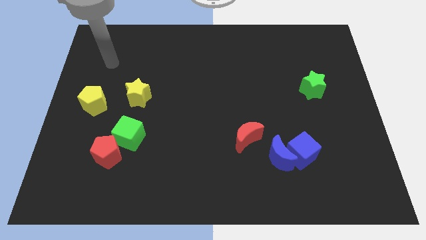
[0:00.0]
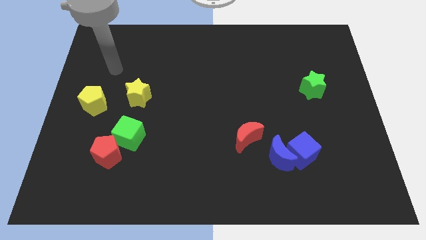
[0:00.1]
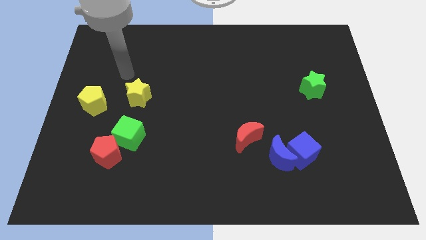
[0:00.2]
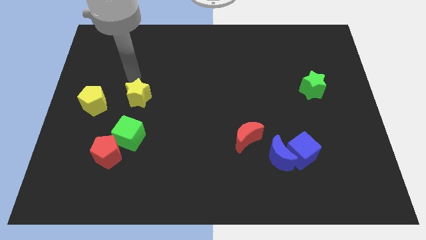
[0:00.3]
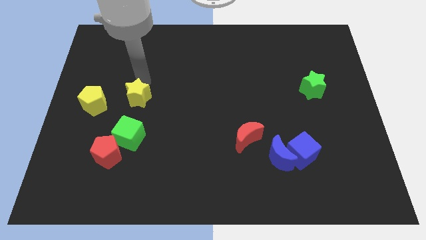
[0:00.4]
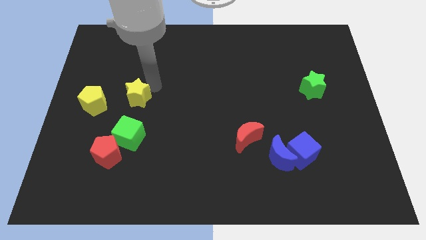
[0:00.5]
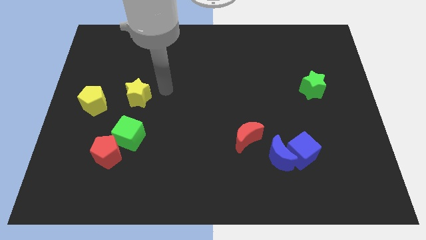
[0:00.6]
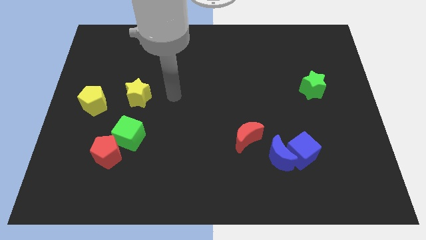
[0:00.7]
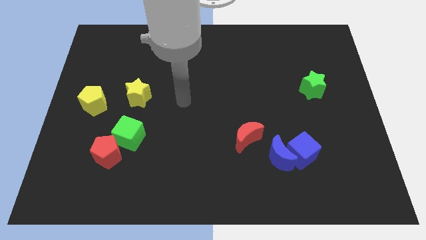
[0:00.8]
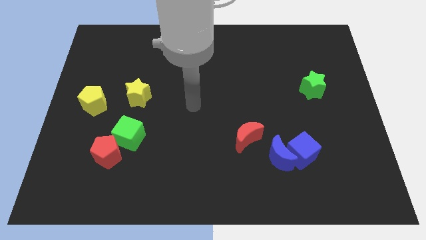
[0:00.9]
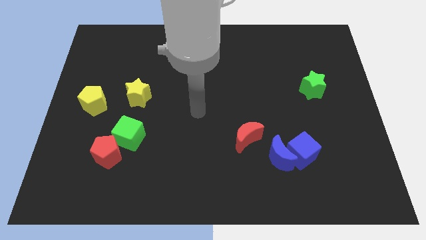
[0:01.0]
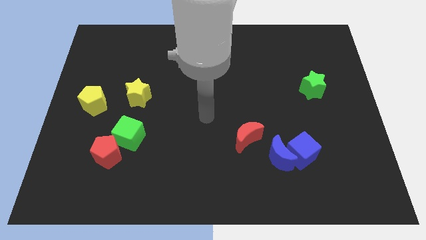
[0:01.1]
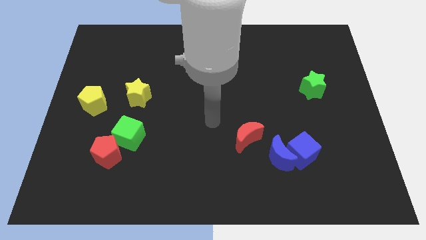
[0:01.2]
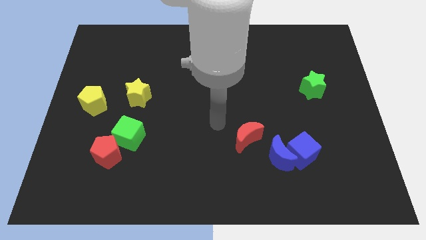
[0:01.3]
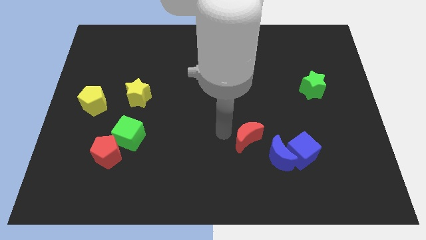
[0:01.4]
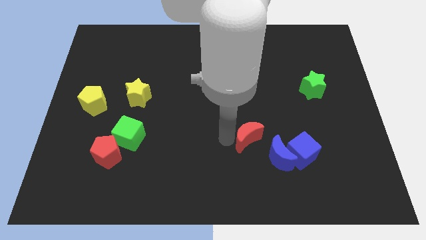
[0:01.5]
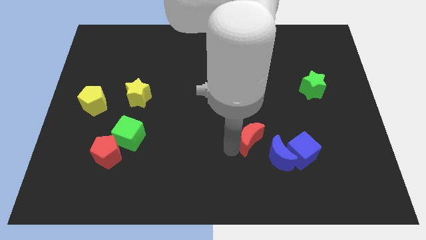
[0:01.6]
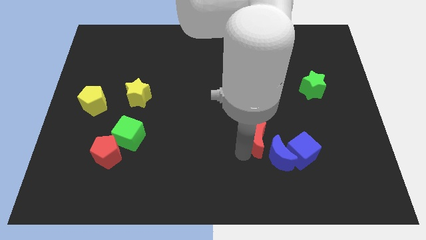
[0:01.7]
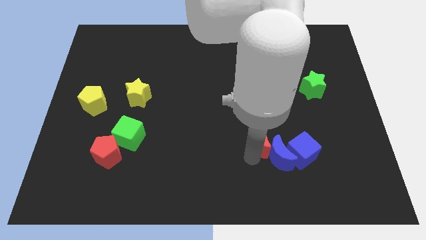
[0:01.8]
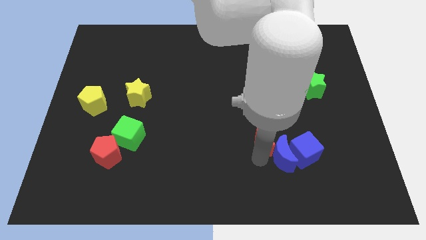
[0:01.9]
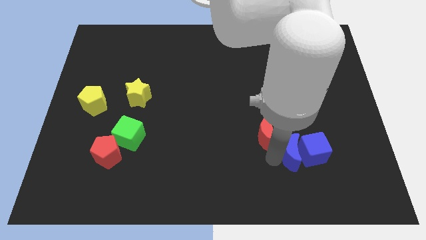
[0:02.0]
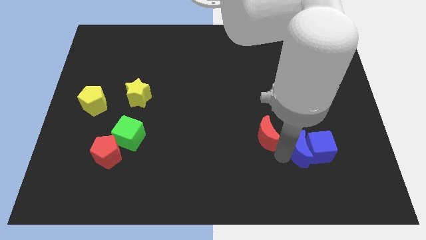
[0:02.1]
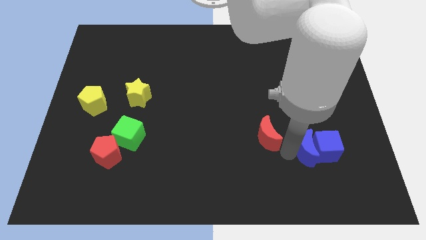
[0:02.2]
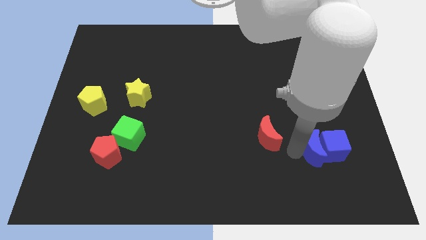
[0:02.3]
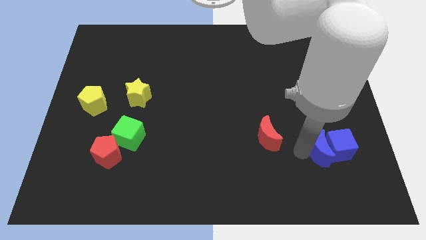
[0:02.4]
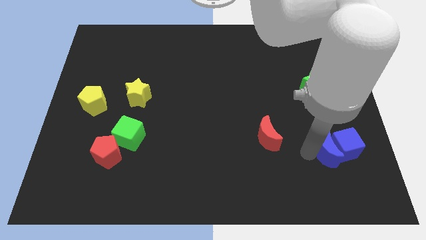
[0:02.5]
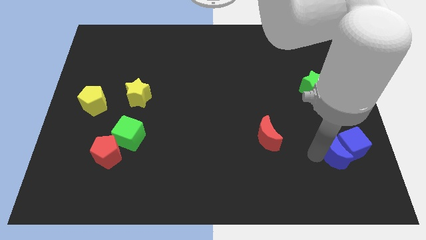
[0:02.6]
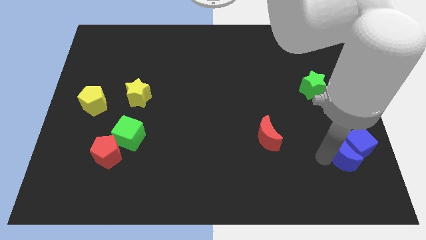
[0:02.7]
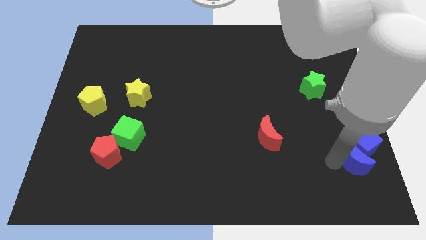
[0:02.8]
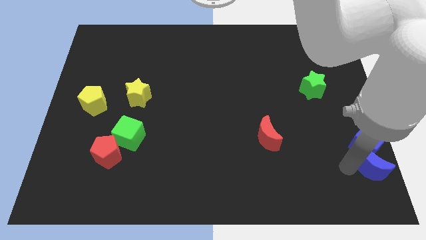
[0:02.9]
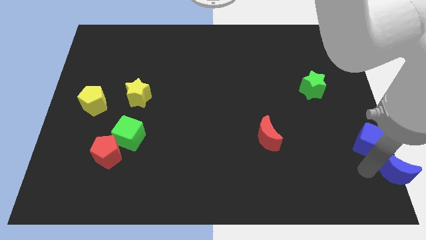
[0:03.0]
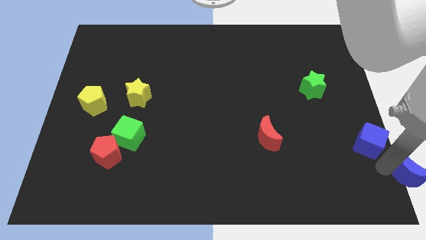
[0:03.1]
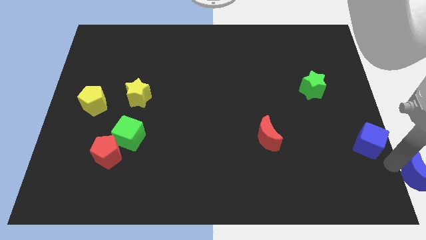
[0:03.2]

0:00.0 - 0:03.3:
move the blue cube away from the blue moon

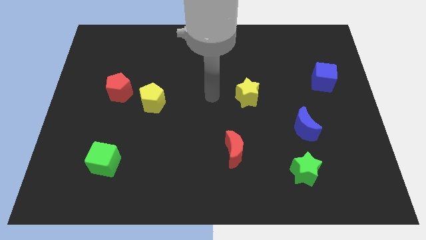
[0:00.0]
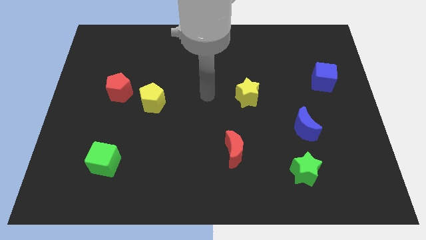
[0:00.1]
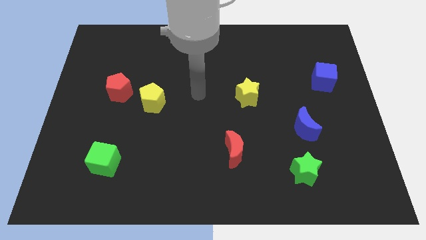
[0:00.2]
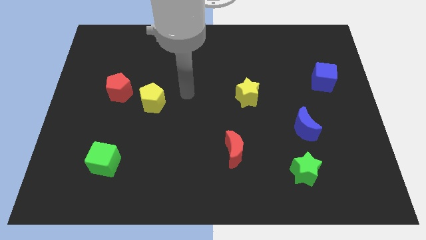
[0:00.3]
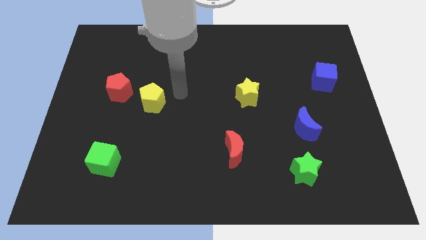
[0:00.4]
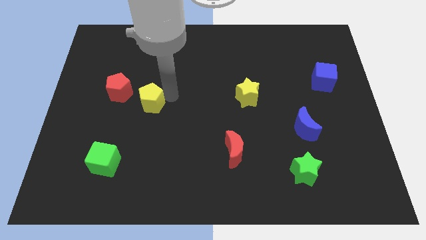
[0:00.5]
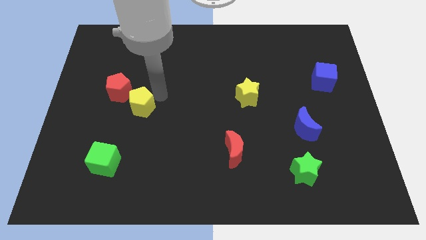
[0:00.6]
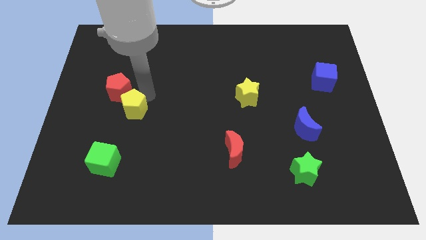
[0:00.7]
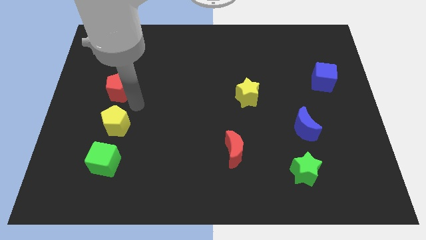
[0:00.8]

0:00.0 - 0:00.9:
pull the red pentagon apart from the yellow pentagon

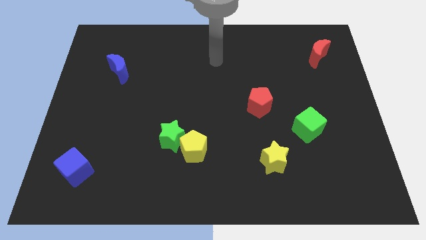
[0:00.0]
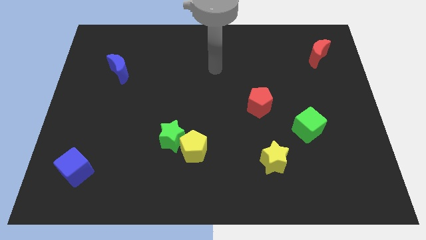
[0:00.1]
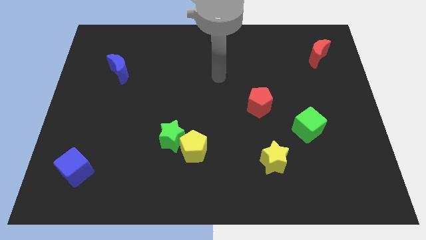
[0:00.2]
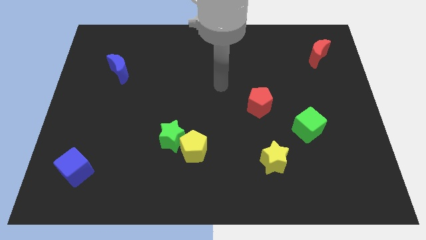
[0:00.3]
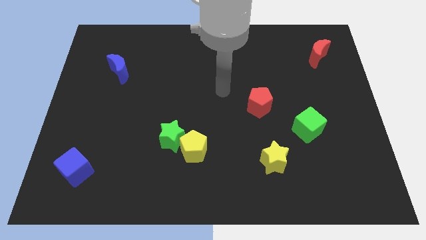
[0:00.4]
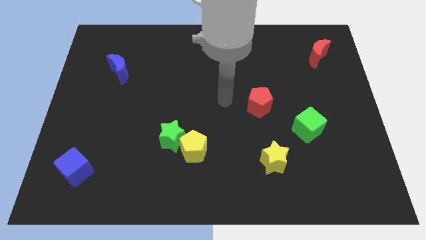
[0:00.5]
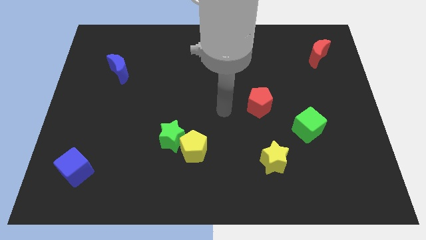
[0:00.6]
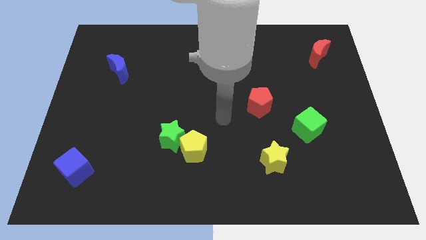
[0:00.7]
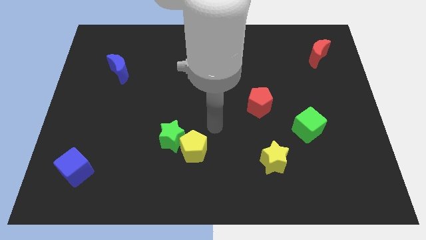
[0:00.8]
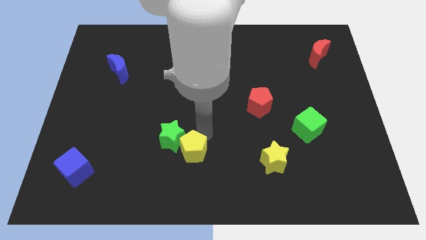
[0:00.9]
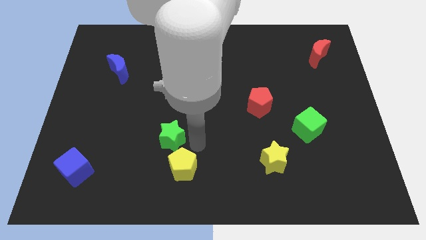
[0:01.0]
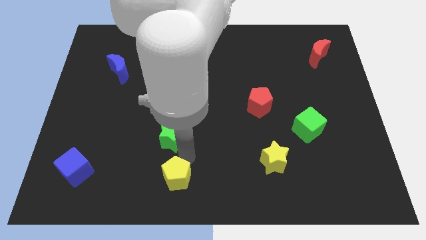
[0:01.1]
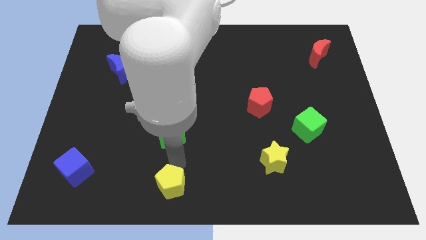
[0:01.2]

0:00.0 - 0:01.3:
separate the green star from the yellow pentagon

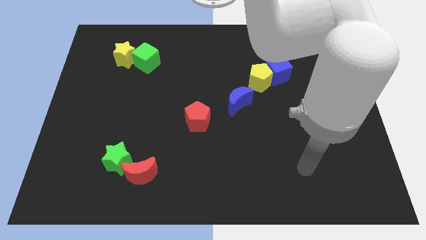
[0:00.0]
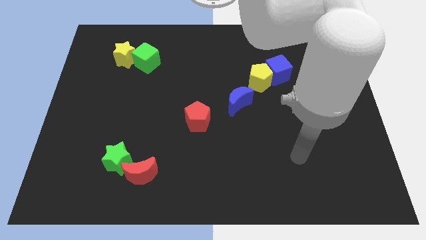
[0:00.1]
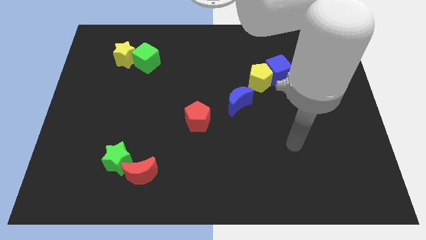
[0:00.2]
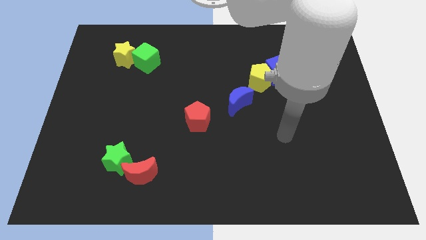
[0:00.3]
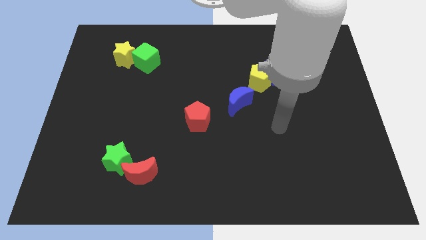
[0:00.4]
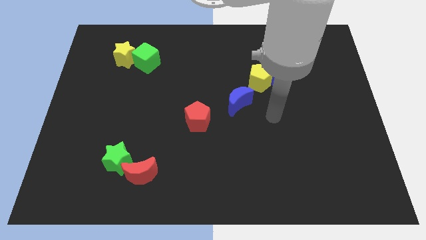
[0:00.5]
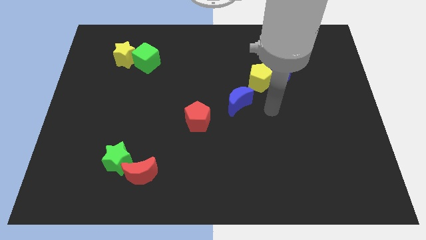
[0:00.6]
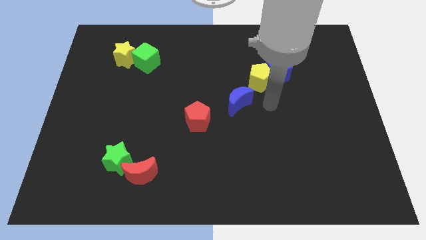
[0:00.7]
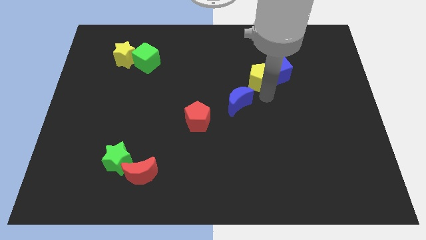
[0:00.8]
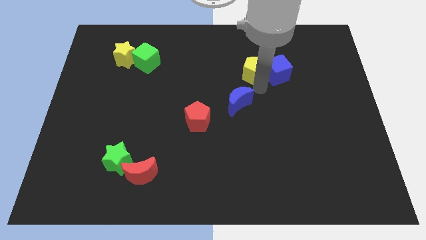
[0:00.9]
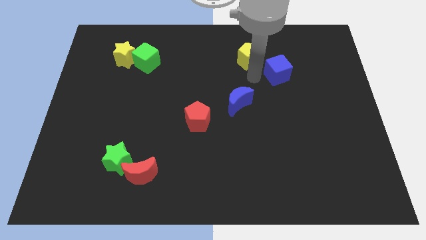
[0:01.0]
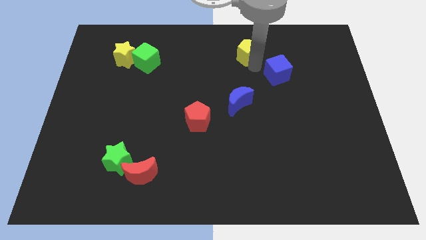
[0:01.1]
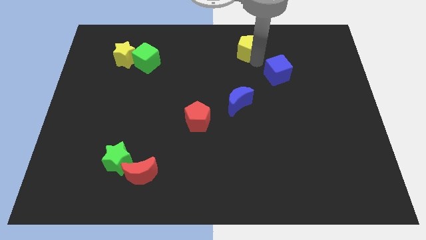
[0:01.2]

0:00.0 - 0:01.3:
move the blue cube away from the yellow pentagon

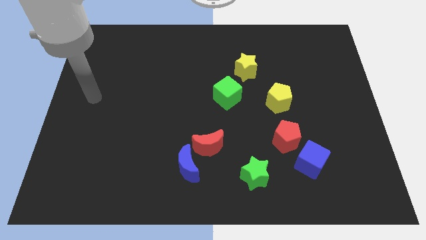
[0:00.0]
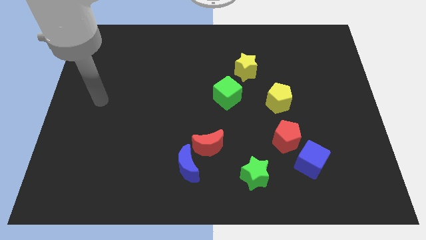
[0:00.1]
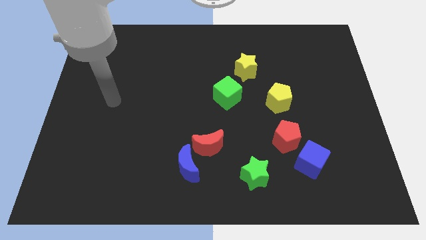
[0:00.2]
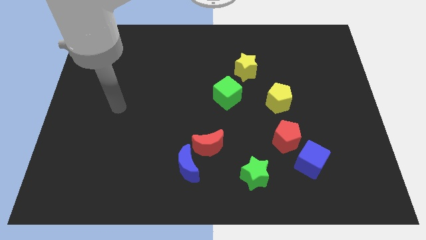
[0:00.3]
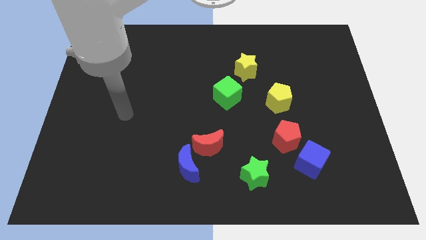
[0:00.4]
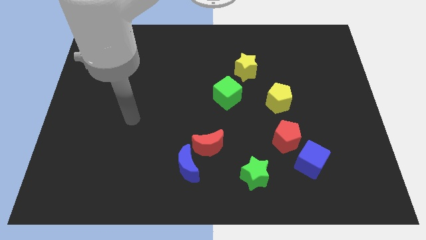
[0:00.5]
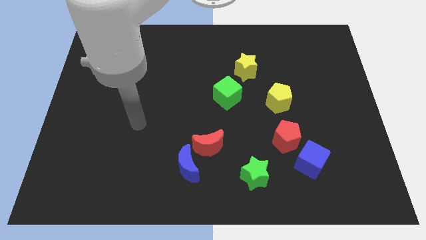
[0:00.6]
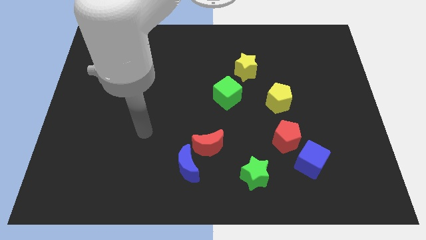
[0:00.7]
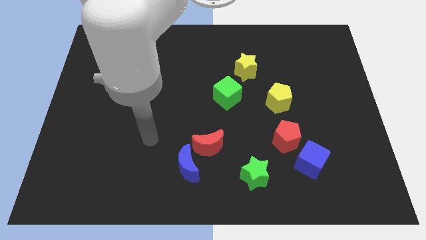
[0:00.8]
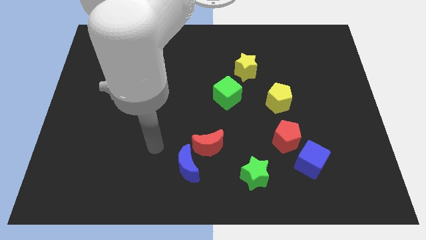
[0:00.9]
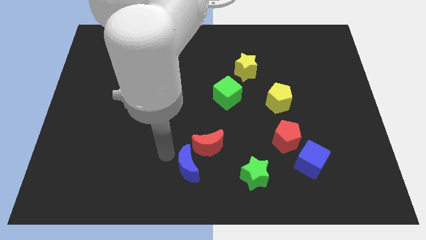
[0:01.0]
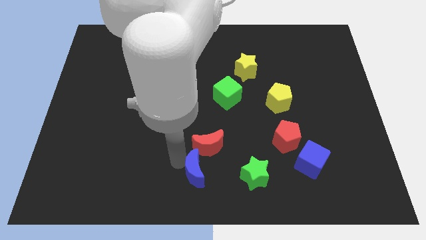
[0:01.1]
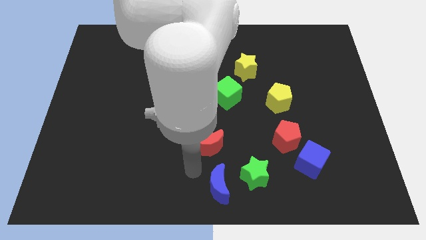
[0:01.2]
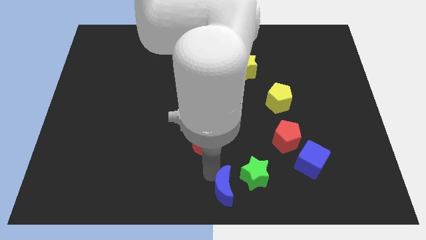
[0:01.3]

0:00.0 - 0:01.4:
pull the red moon apart from the blue moon

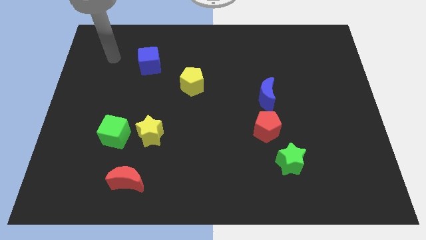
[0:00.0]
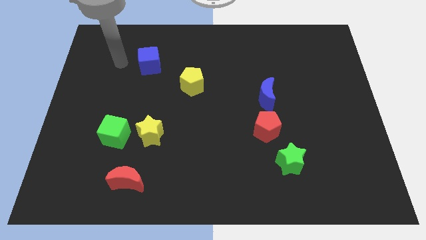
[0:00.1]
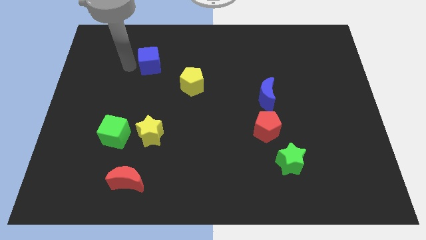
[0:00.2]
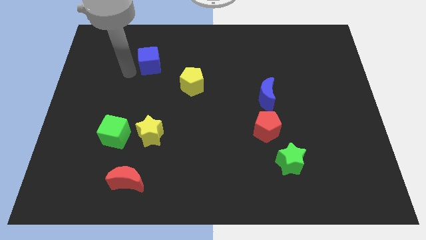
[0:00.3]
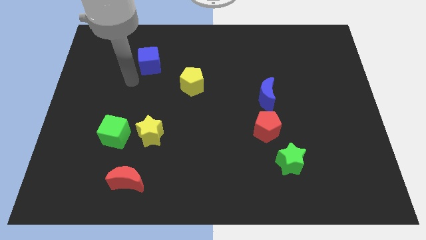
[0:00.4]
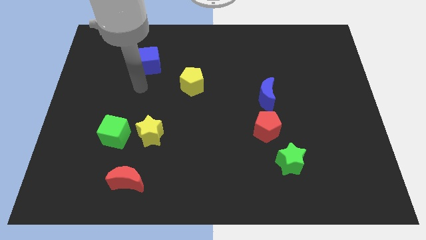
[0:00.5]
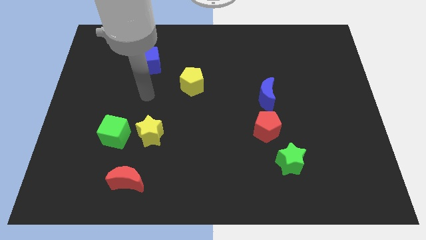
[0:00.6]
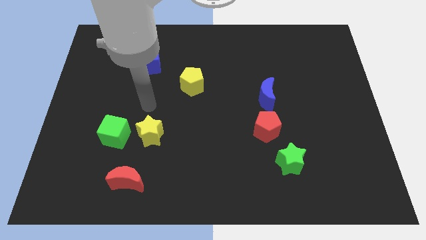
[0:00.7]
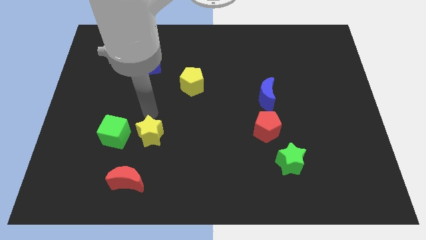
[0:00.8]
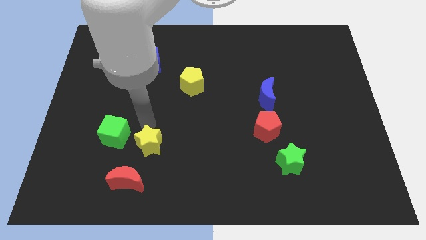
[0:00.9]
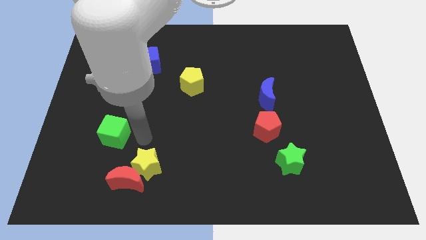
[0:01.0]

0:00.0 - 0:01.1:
pull the green cube apart from the yellow star
